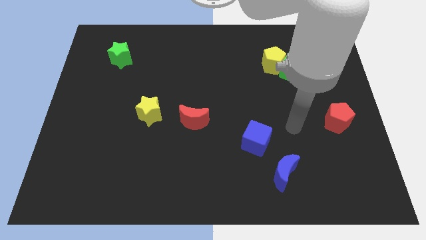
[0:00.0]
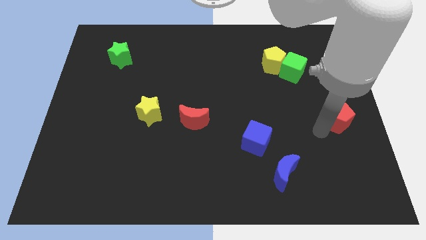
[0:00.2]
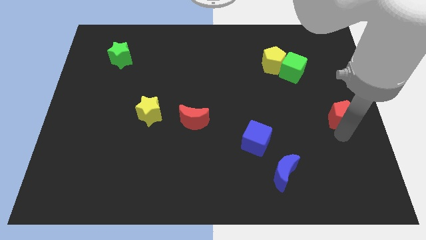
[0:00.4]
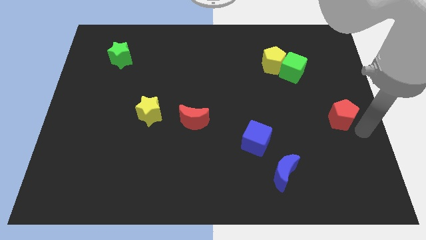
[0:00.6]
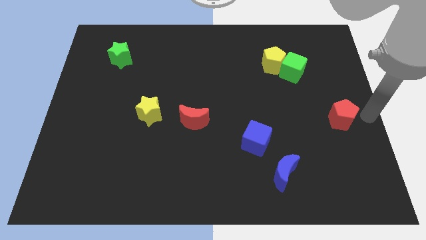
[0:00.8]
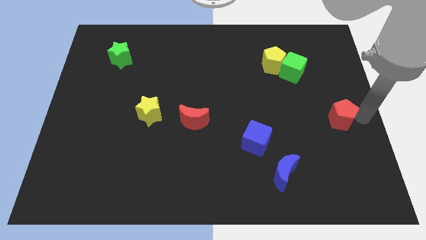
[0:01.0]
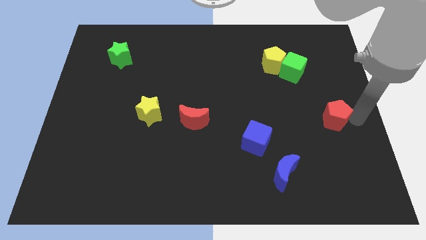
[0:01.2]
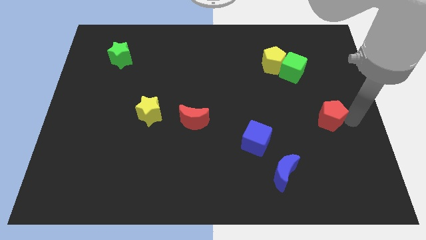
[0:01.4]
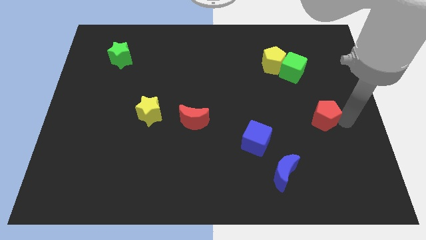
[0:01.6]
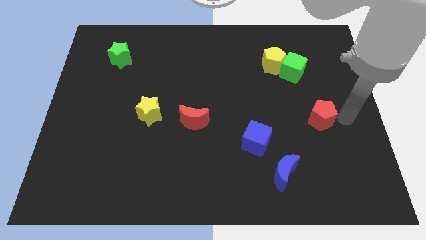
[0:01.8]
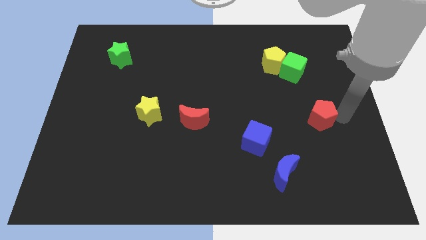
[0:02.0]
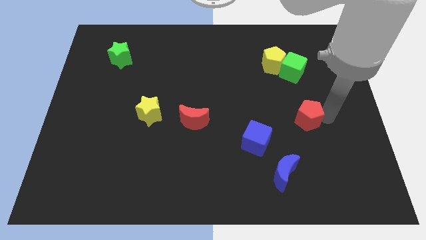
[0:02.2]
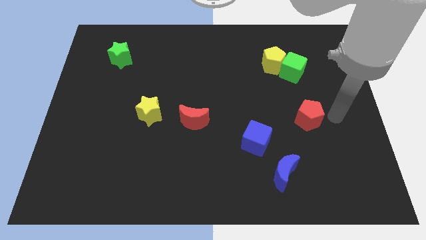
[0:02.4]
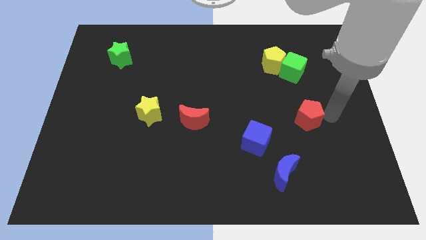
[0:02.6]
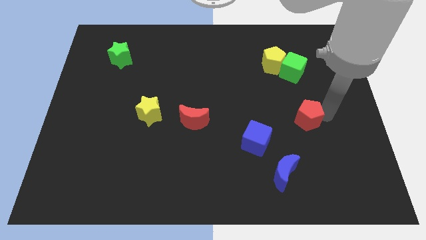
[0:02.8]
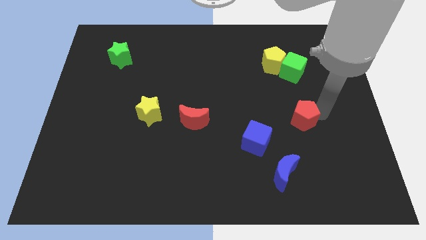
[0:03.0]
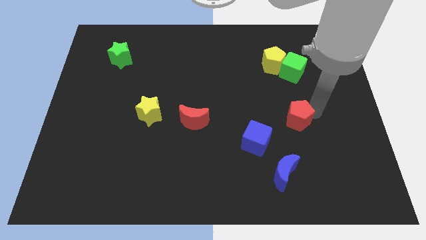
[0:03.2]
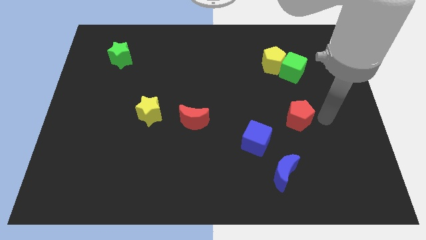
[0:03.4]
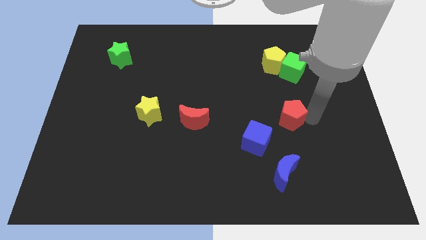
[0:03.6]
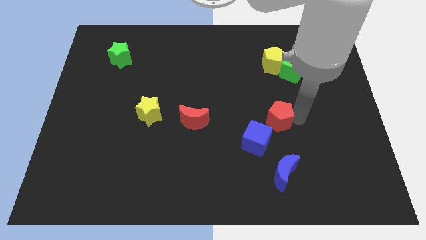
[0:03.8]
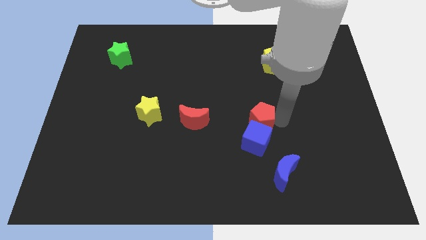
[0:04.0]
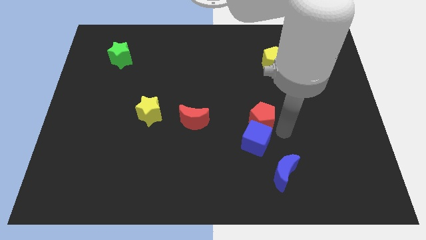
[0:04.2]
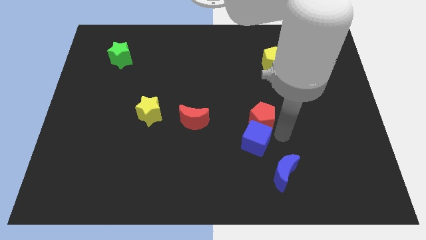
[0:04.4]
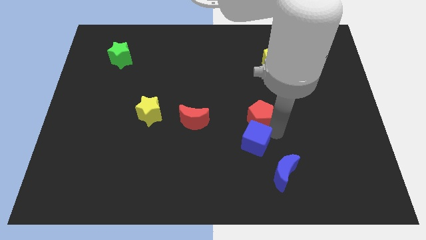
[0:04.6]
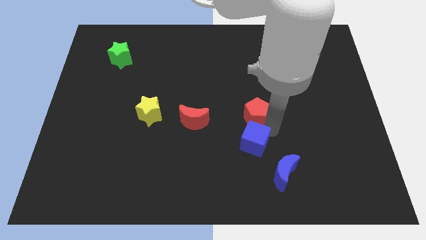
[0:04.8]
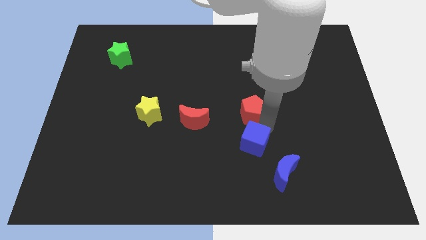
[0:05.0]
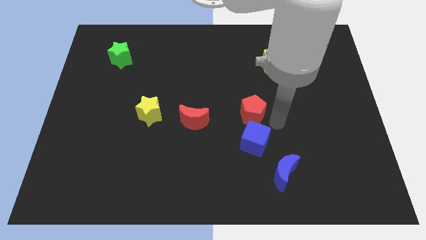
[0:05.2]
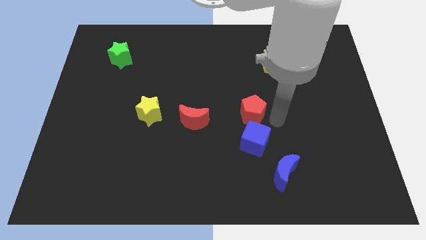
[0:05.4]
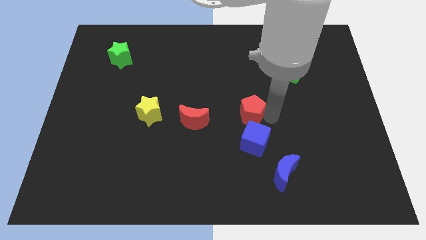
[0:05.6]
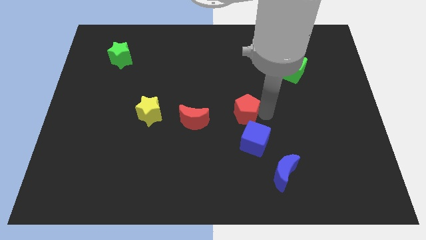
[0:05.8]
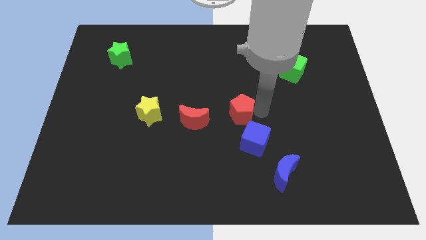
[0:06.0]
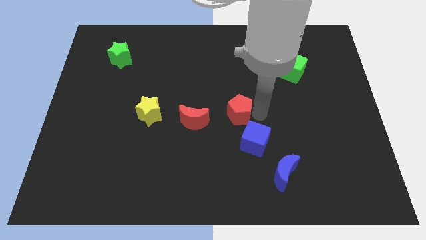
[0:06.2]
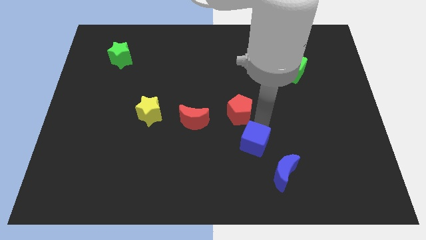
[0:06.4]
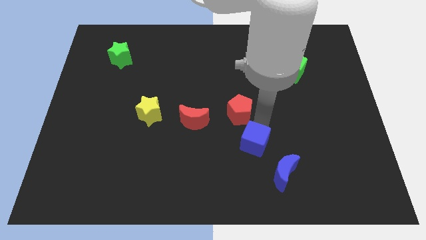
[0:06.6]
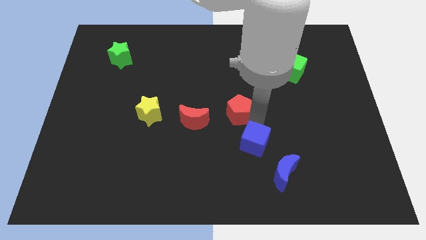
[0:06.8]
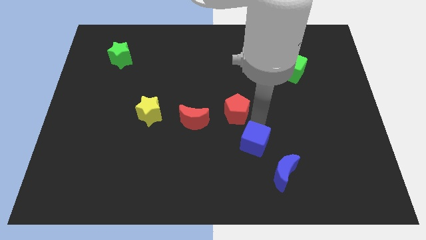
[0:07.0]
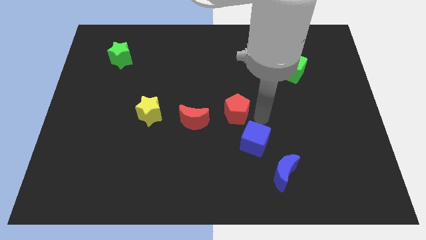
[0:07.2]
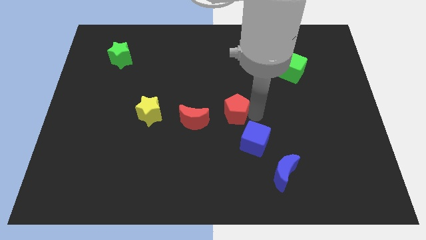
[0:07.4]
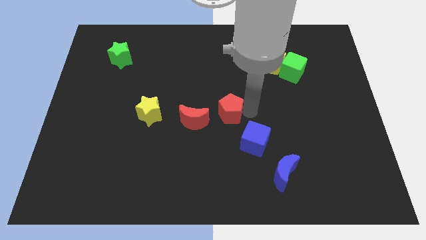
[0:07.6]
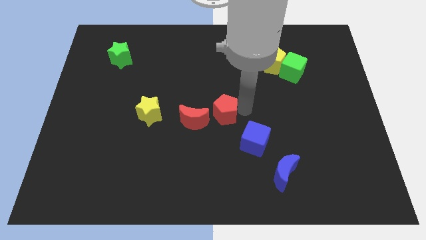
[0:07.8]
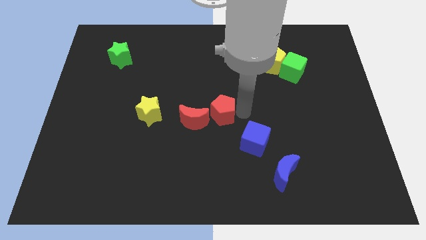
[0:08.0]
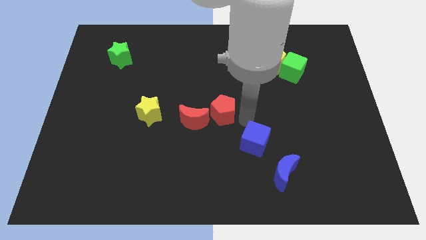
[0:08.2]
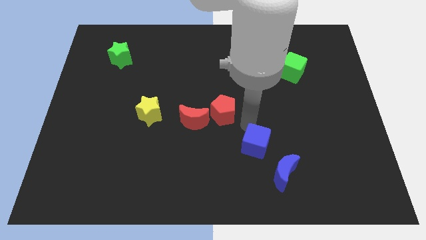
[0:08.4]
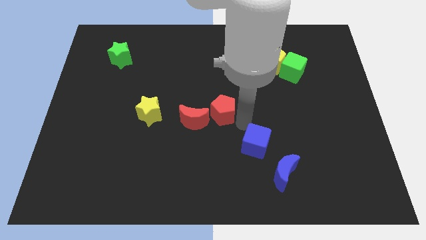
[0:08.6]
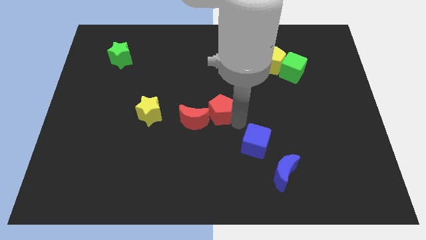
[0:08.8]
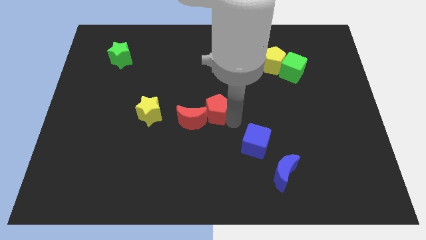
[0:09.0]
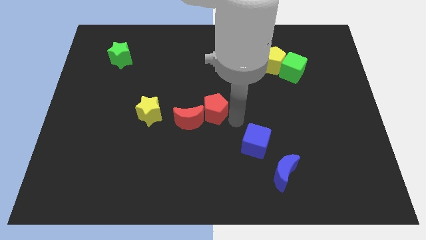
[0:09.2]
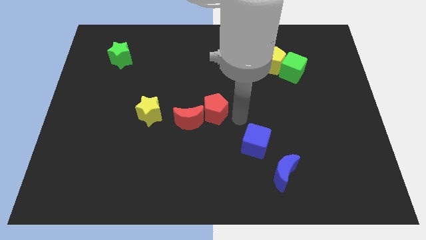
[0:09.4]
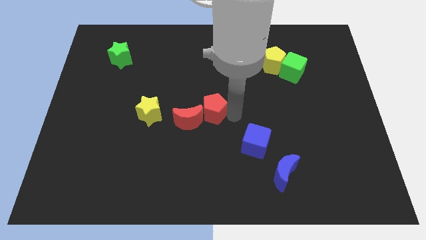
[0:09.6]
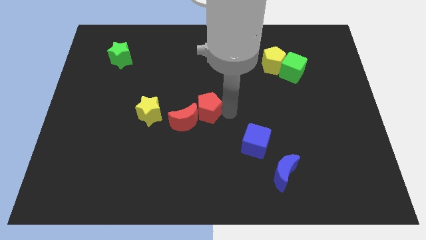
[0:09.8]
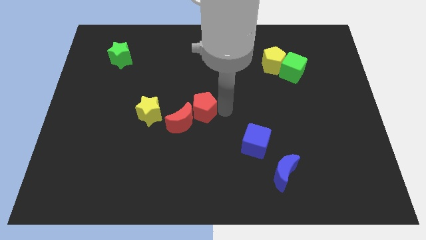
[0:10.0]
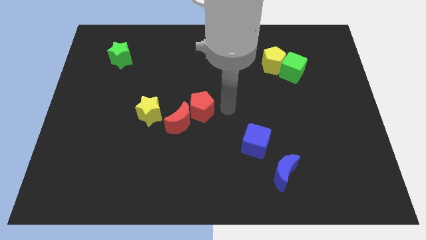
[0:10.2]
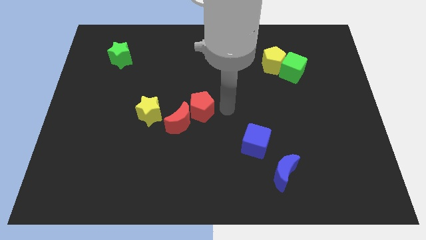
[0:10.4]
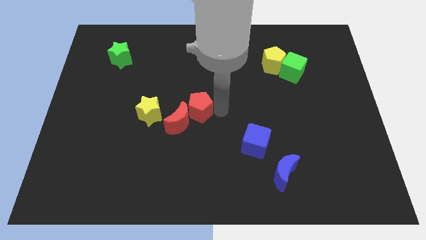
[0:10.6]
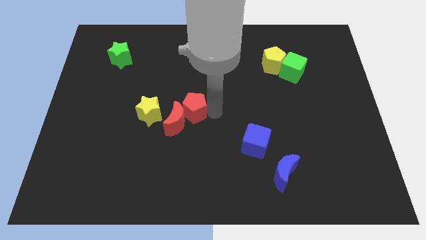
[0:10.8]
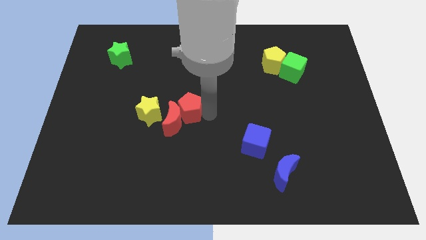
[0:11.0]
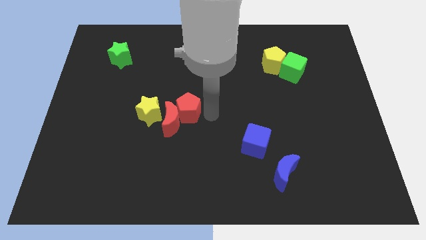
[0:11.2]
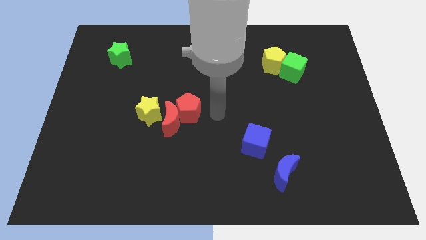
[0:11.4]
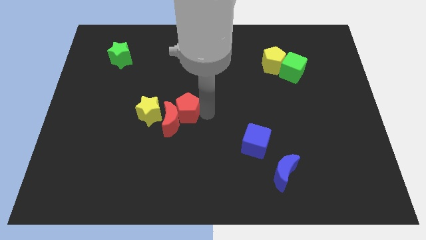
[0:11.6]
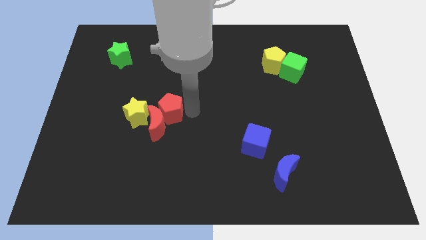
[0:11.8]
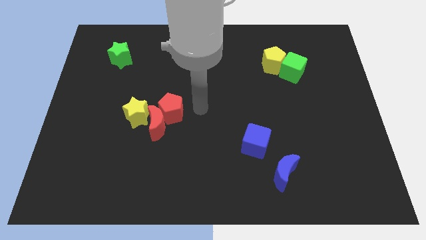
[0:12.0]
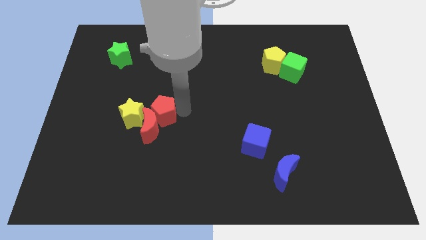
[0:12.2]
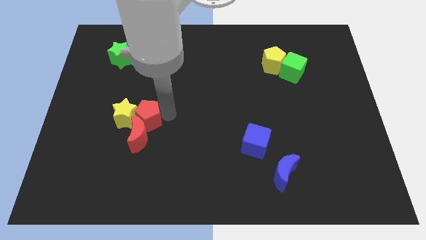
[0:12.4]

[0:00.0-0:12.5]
push the red pentagon next to the yellow star

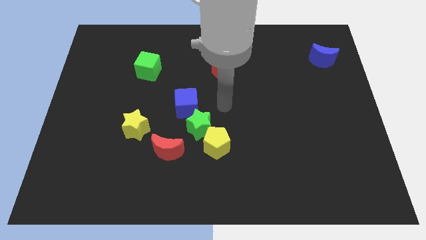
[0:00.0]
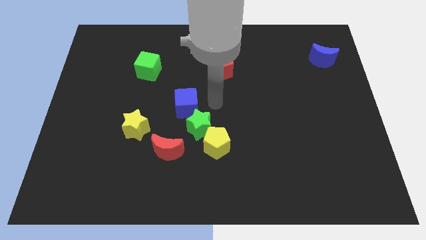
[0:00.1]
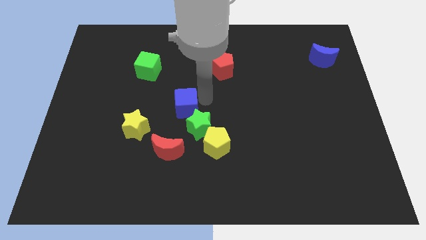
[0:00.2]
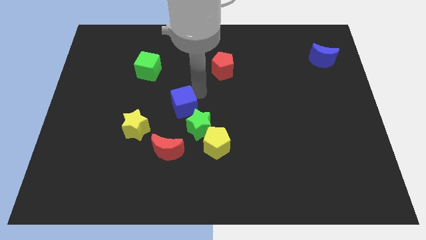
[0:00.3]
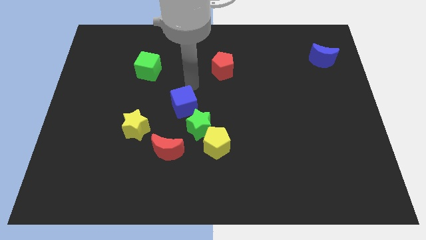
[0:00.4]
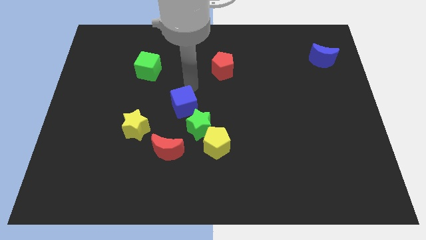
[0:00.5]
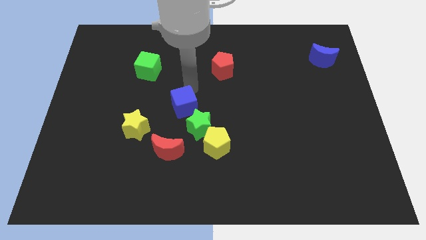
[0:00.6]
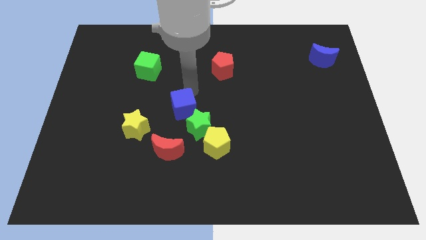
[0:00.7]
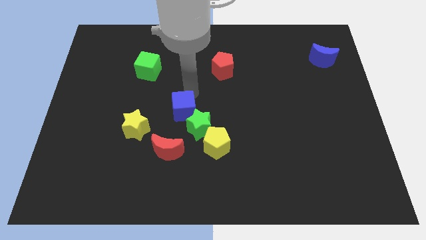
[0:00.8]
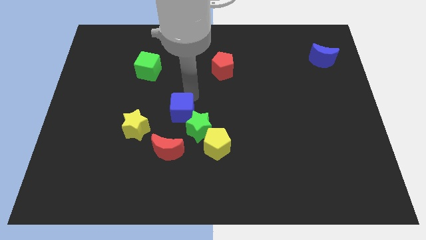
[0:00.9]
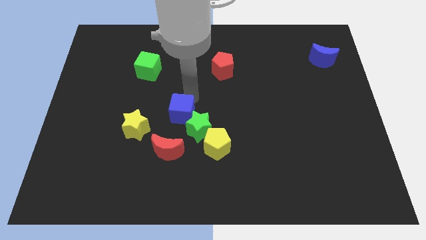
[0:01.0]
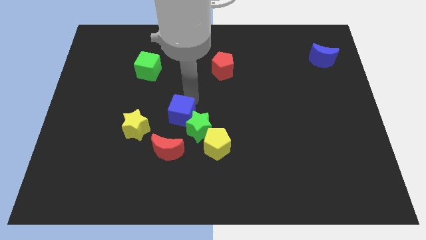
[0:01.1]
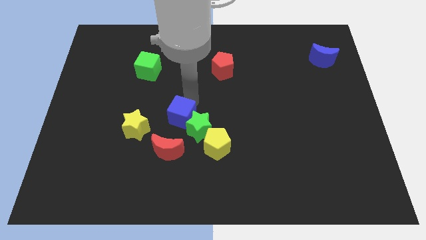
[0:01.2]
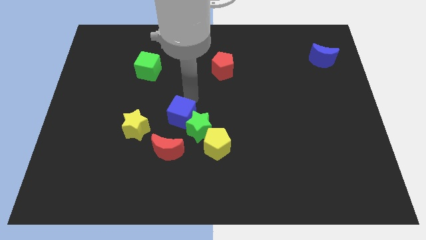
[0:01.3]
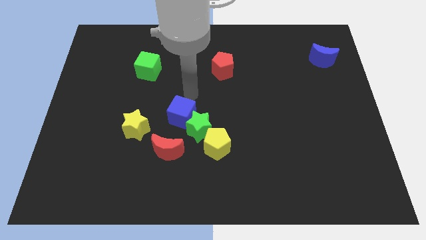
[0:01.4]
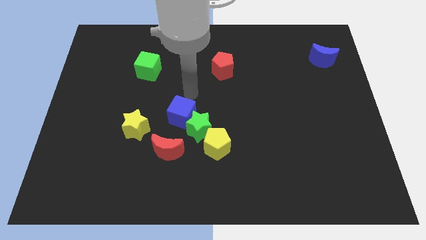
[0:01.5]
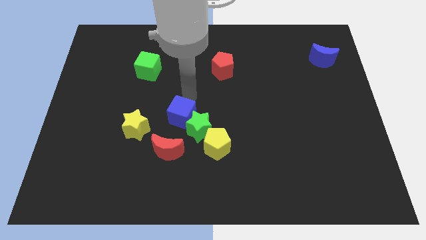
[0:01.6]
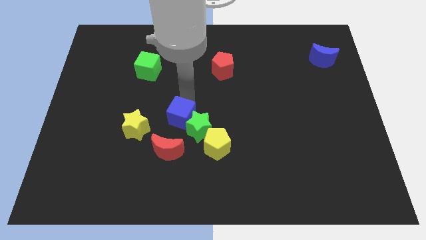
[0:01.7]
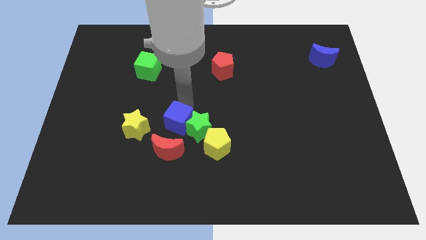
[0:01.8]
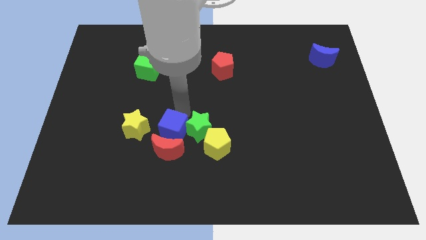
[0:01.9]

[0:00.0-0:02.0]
put the blue cube next to the red moon
